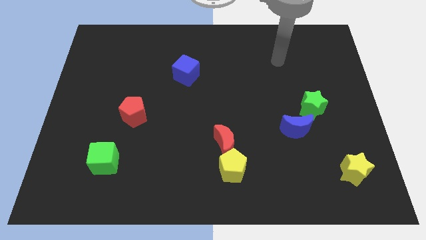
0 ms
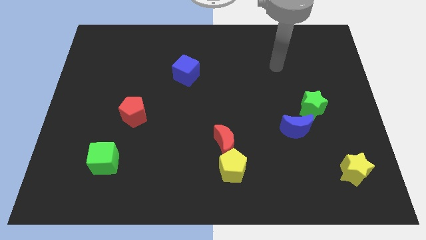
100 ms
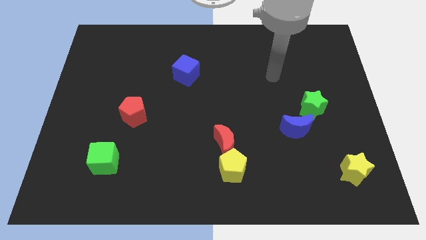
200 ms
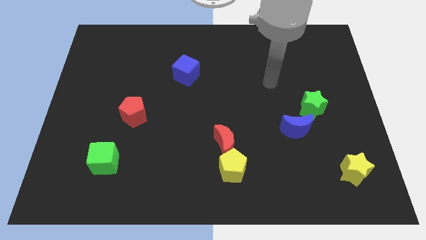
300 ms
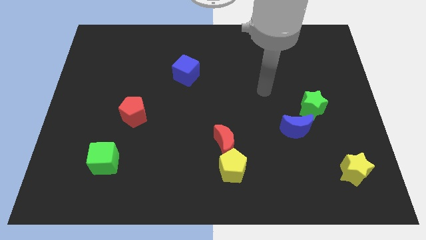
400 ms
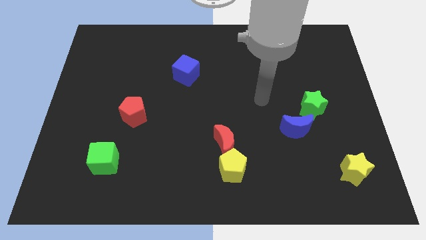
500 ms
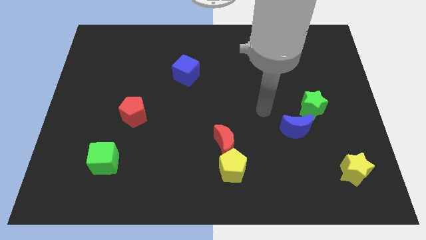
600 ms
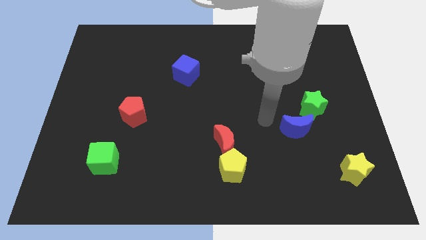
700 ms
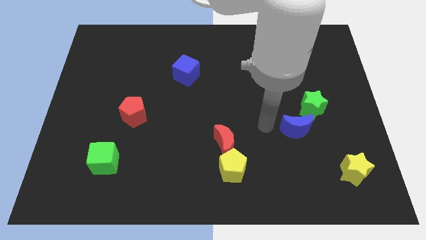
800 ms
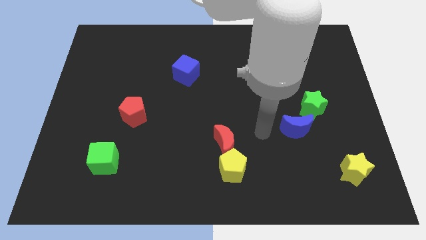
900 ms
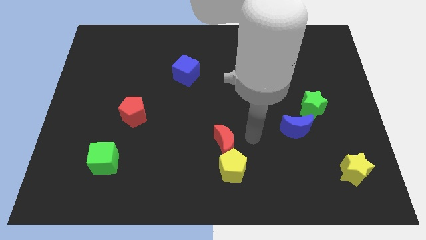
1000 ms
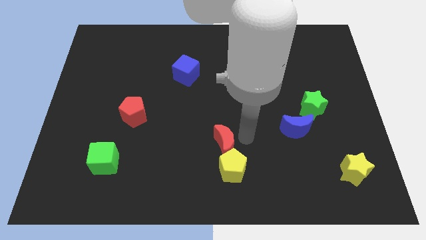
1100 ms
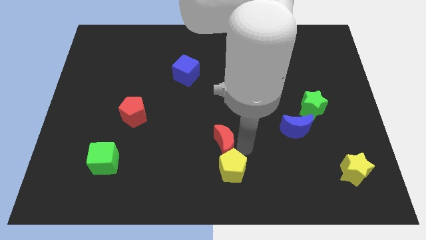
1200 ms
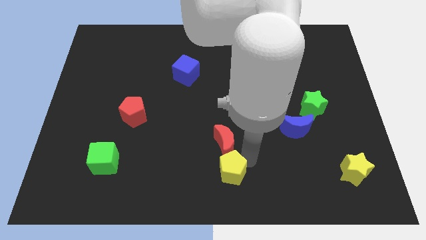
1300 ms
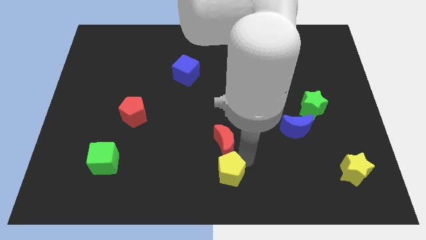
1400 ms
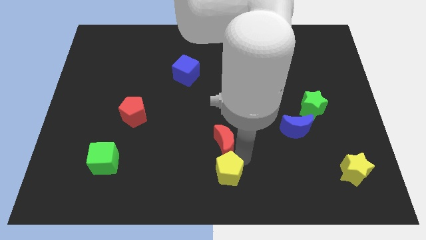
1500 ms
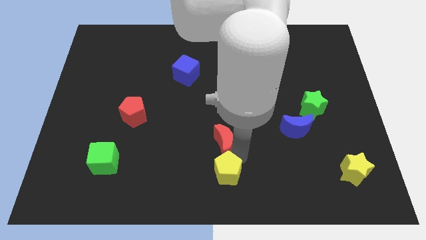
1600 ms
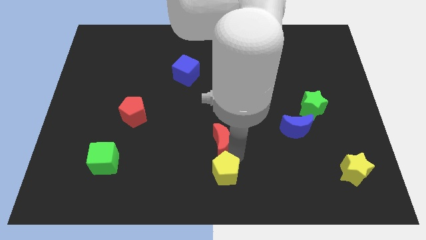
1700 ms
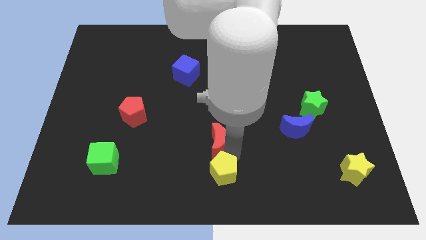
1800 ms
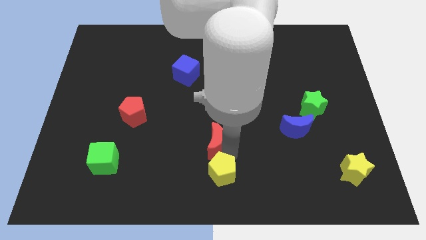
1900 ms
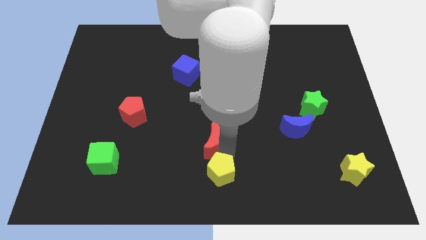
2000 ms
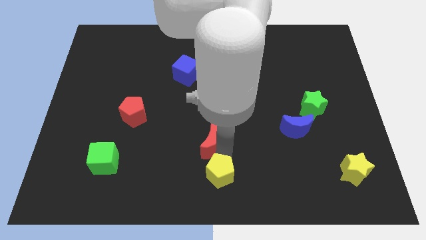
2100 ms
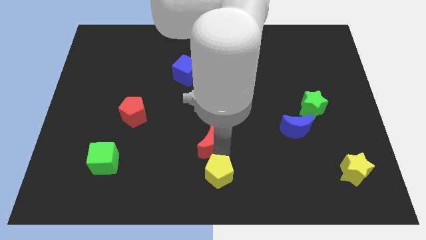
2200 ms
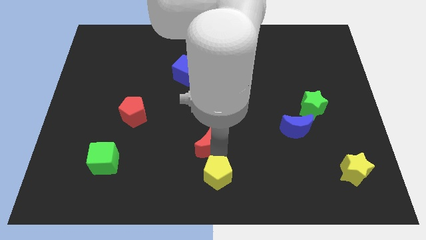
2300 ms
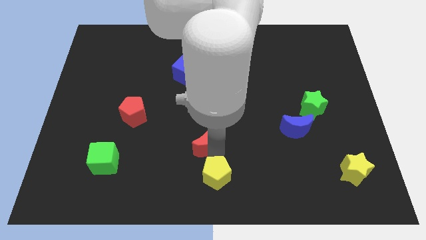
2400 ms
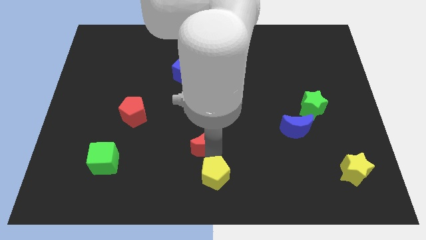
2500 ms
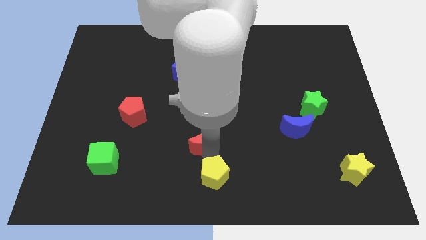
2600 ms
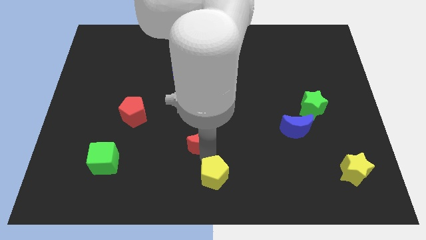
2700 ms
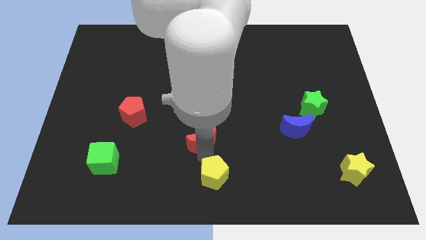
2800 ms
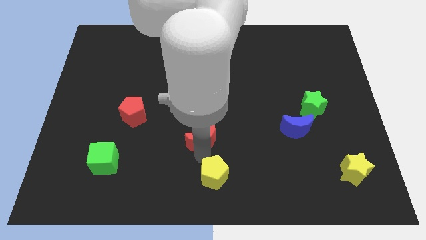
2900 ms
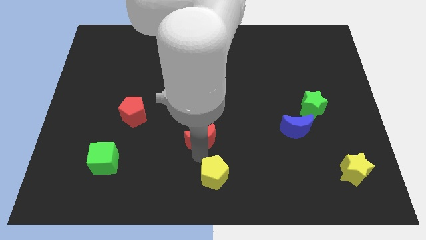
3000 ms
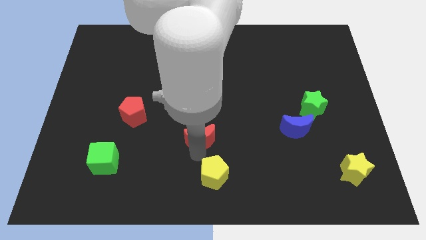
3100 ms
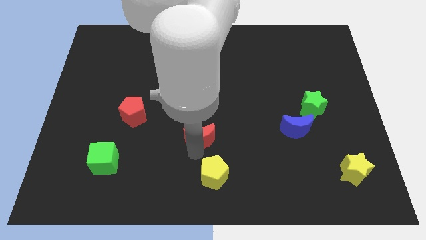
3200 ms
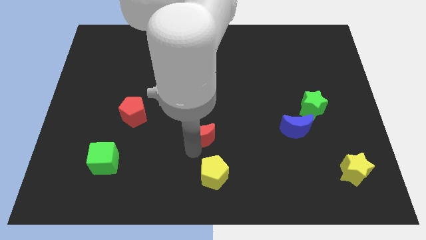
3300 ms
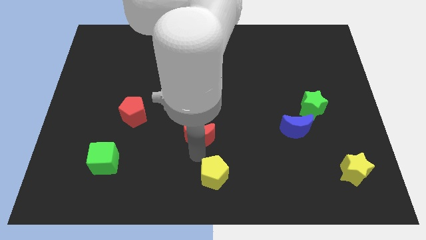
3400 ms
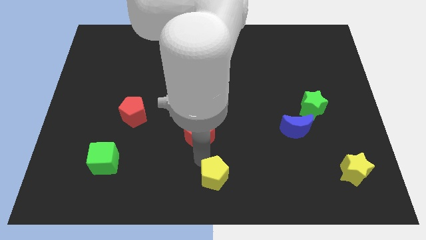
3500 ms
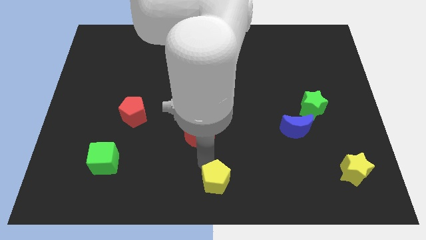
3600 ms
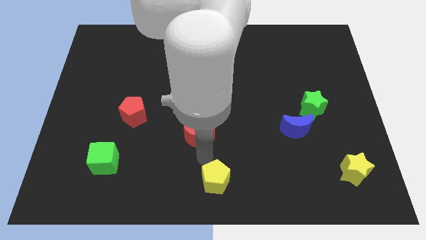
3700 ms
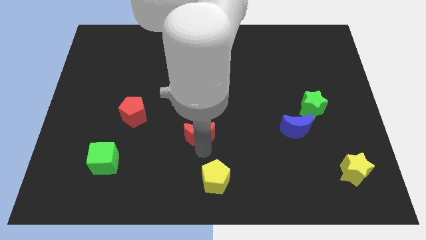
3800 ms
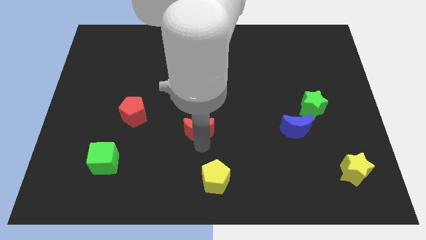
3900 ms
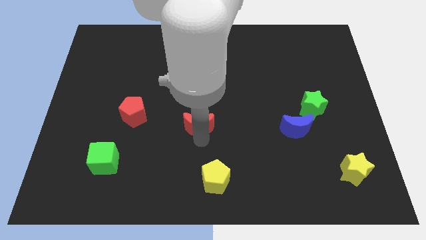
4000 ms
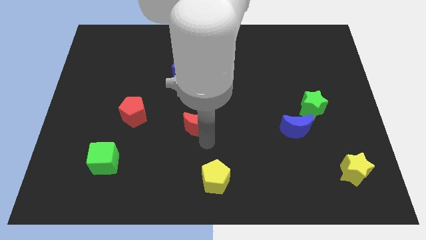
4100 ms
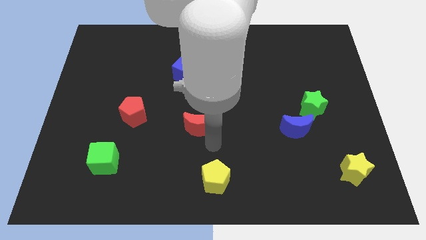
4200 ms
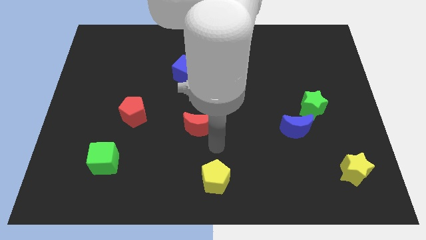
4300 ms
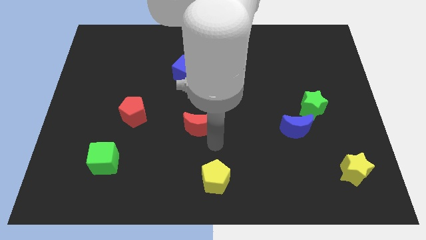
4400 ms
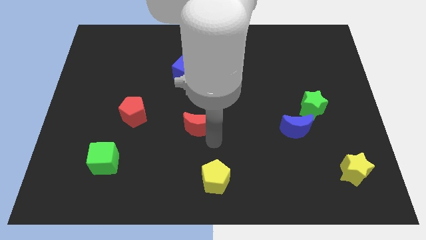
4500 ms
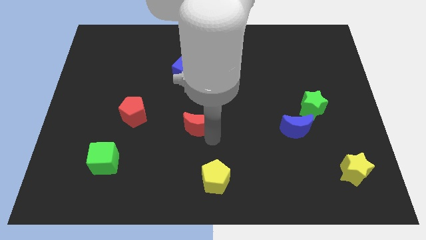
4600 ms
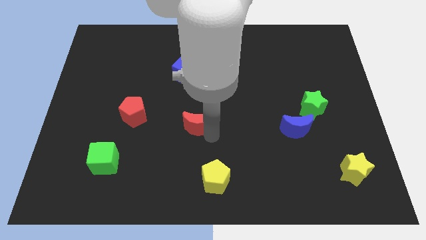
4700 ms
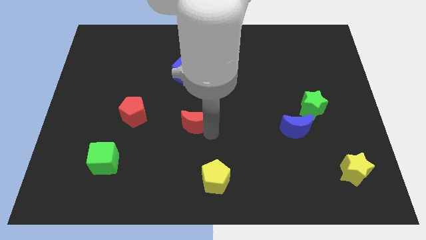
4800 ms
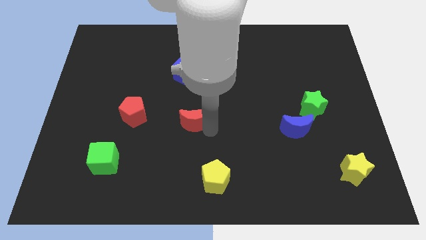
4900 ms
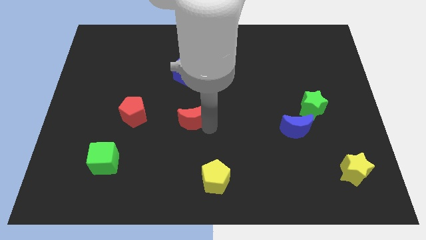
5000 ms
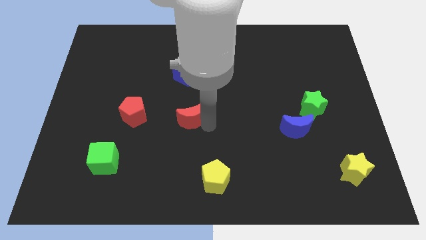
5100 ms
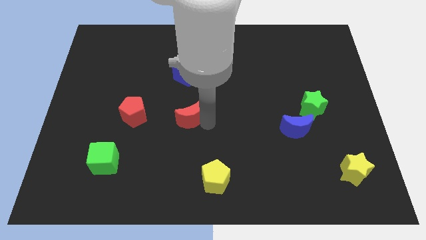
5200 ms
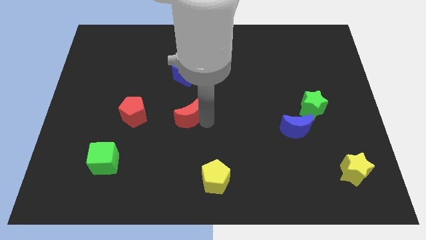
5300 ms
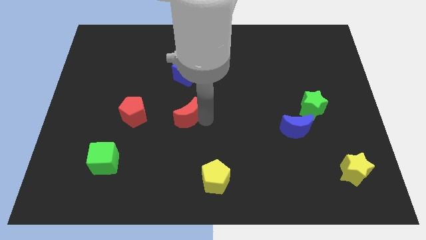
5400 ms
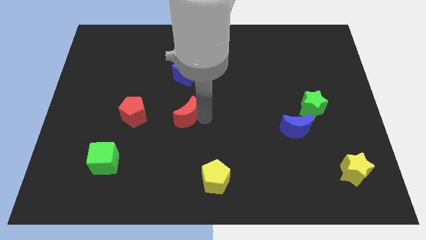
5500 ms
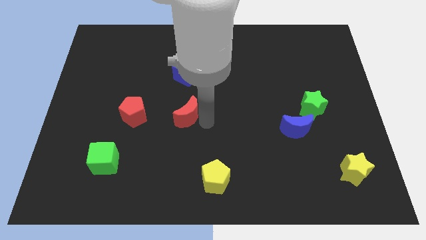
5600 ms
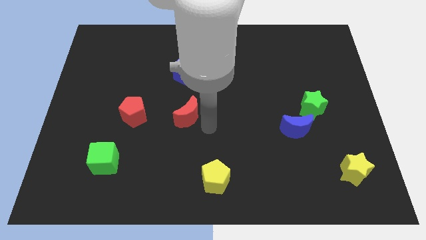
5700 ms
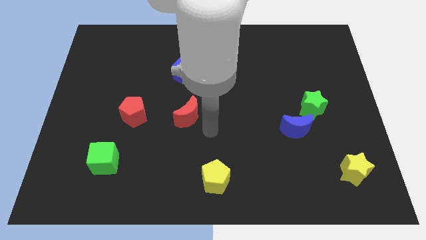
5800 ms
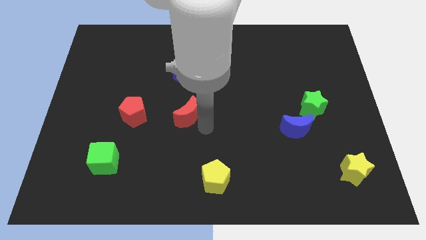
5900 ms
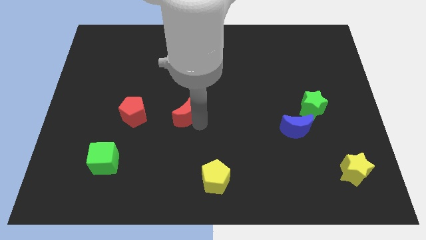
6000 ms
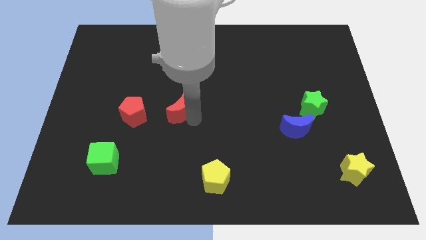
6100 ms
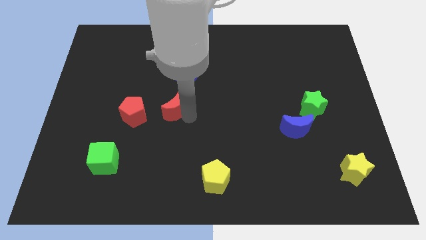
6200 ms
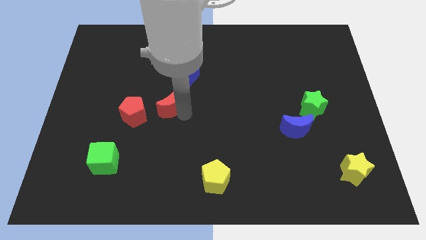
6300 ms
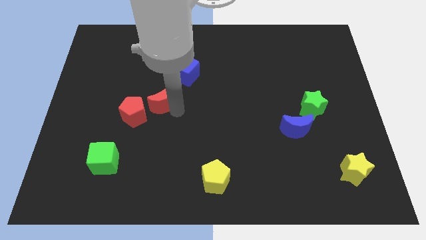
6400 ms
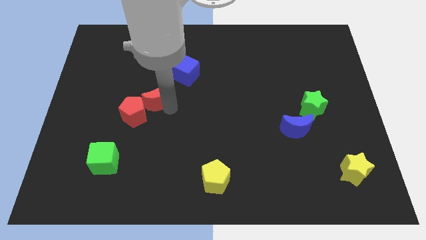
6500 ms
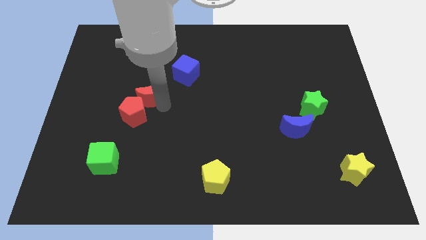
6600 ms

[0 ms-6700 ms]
push the red moon upwards and left diagonally

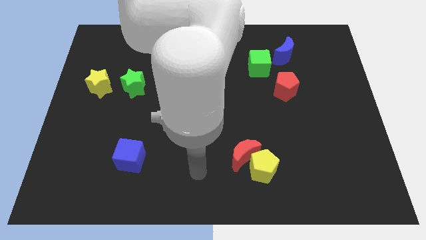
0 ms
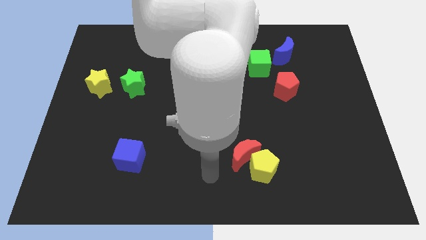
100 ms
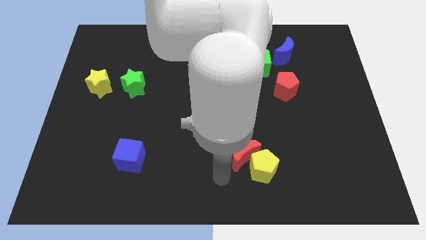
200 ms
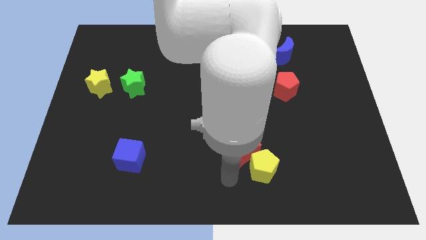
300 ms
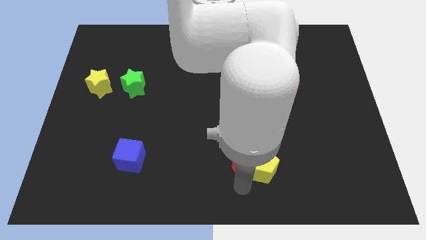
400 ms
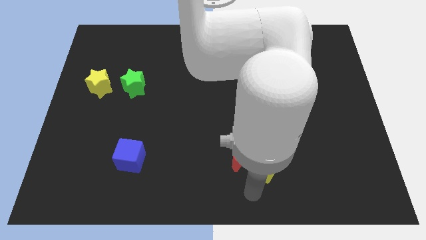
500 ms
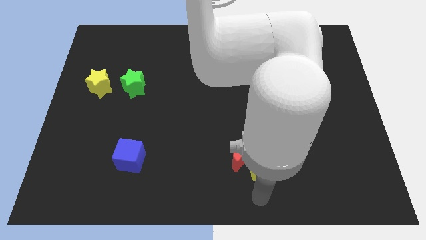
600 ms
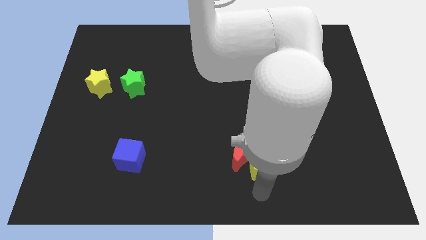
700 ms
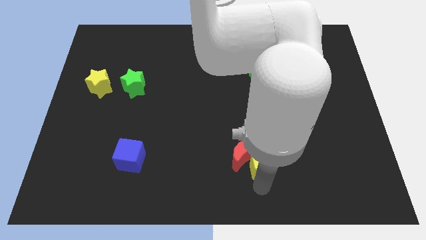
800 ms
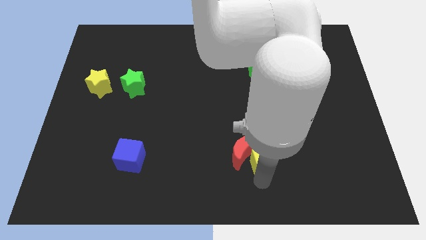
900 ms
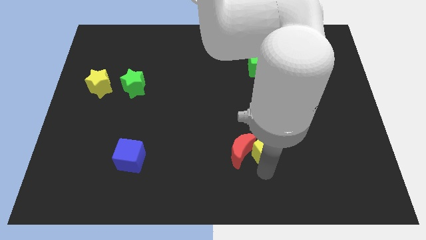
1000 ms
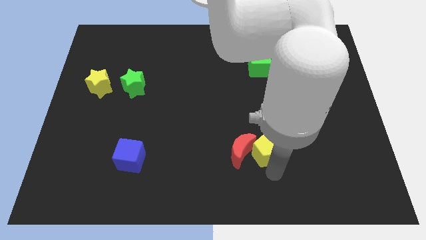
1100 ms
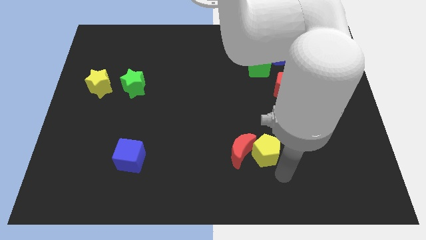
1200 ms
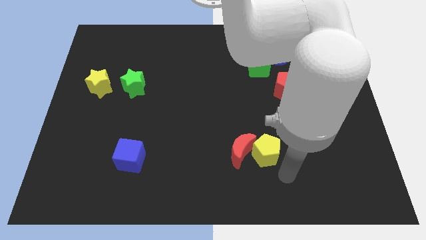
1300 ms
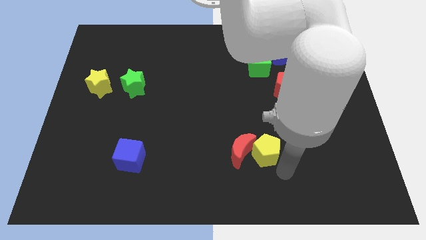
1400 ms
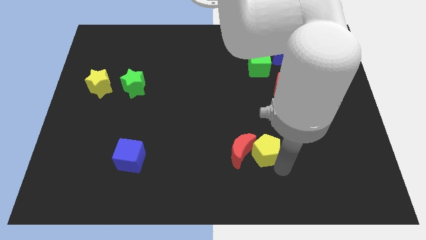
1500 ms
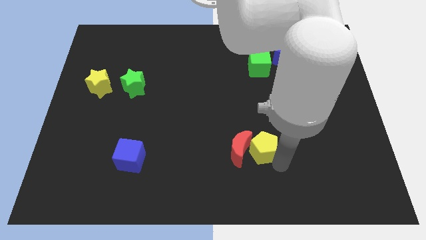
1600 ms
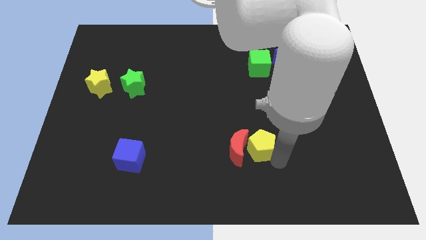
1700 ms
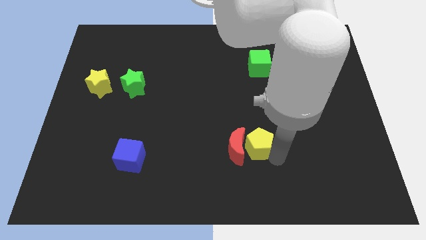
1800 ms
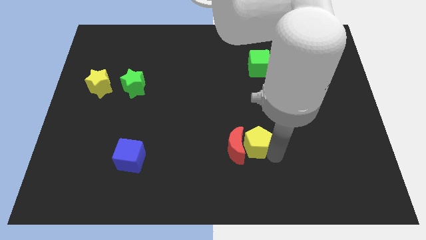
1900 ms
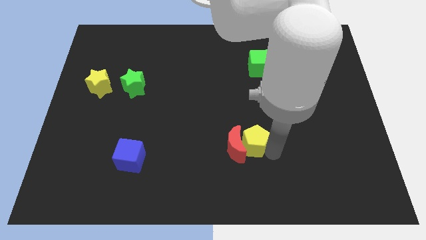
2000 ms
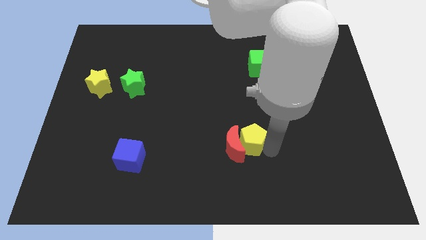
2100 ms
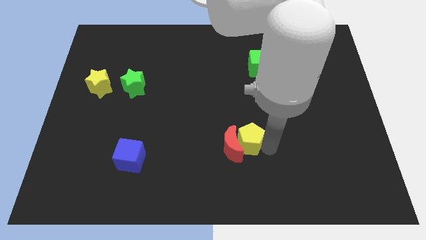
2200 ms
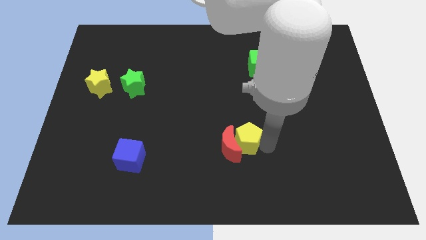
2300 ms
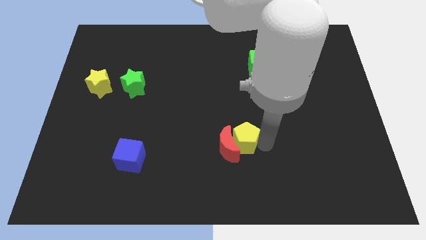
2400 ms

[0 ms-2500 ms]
slightly push the yellow pentagon upwards and then left
